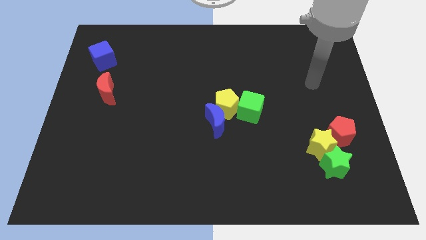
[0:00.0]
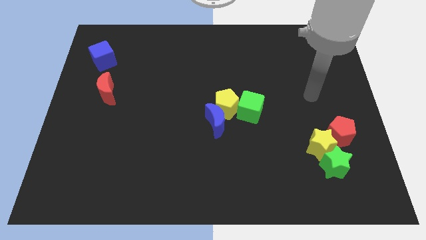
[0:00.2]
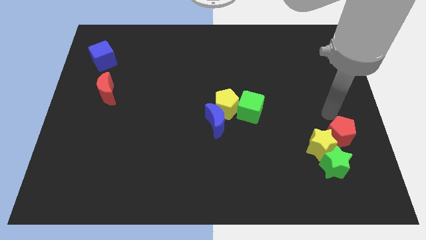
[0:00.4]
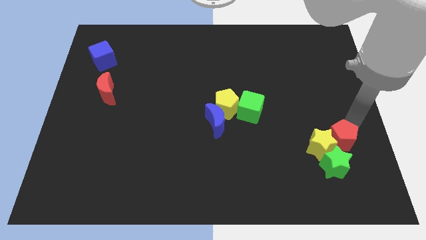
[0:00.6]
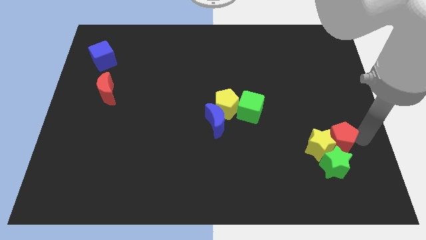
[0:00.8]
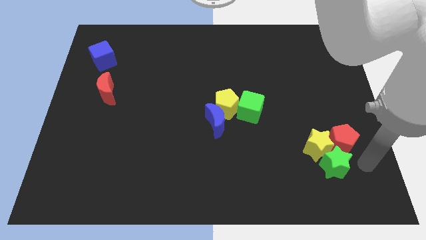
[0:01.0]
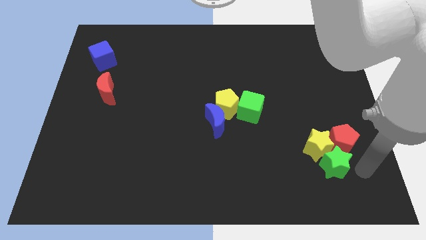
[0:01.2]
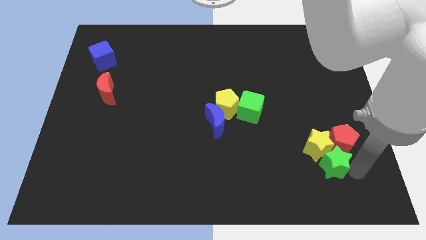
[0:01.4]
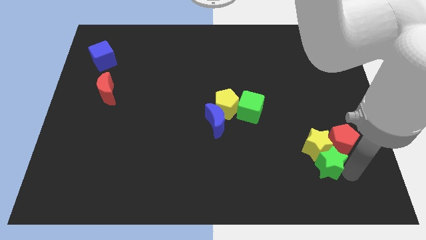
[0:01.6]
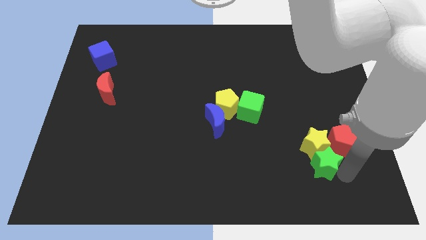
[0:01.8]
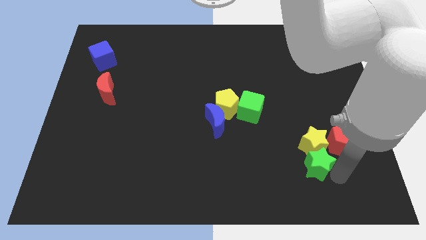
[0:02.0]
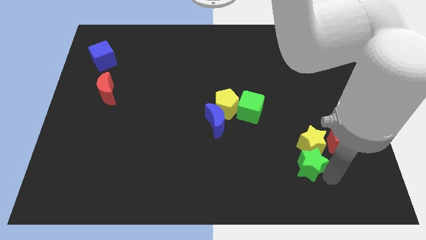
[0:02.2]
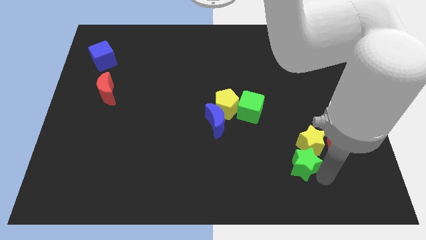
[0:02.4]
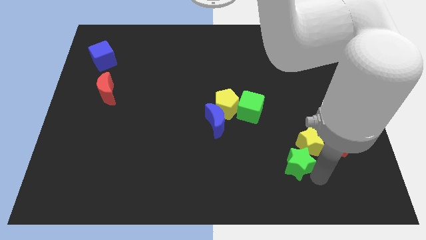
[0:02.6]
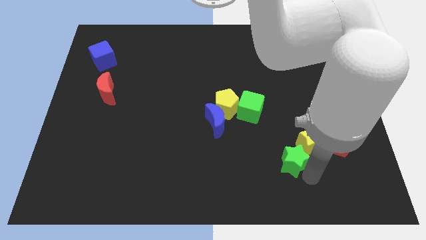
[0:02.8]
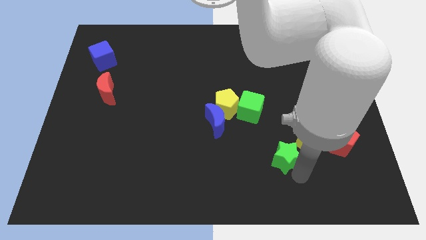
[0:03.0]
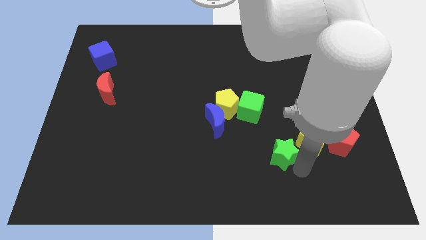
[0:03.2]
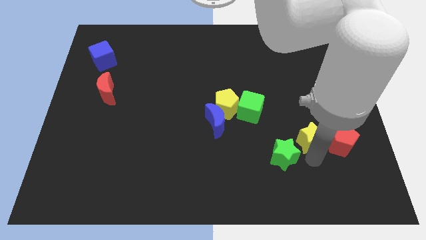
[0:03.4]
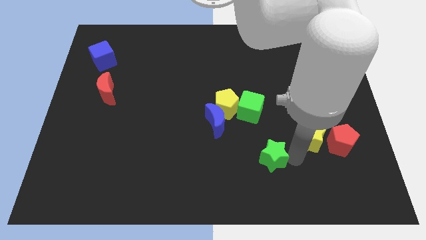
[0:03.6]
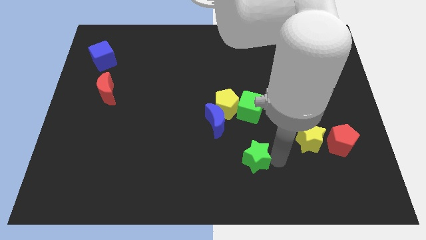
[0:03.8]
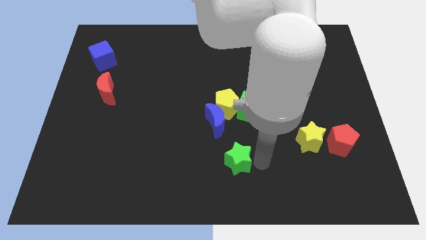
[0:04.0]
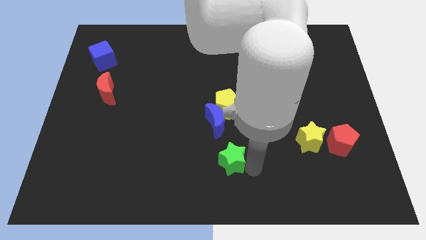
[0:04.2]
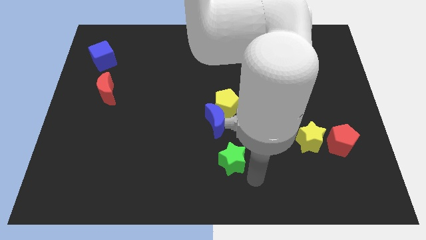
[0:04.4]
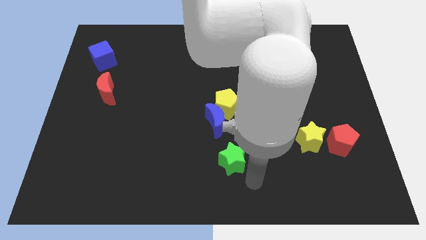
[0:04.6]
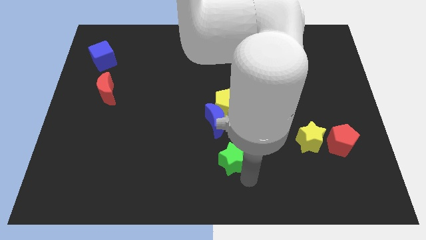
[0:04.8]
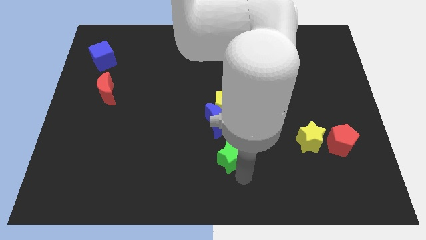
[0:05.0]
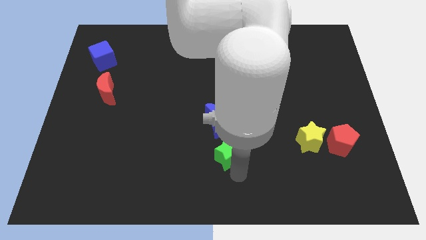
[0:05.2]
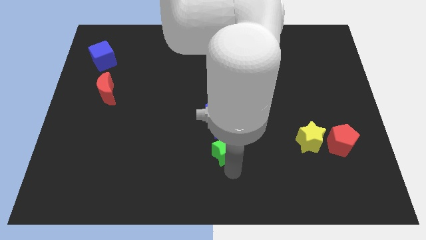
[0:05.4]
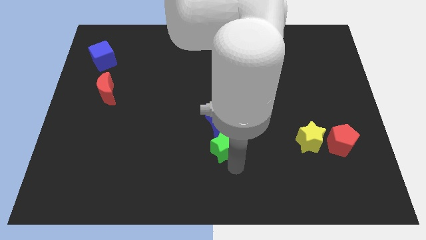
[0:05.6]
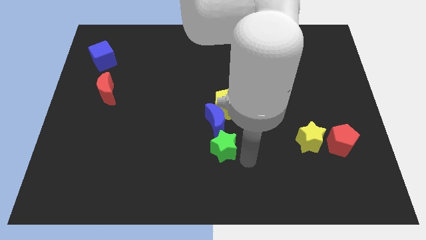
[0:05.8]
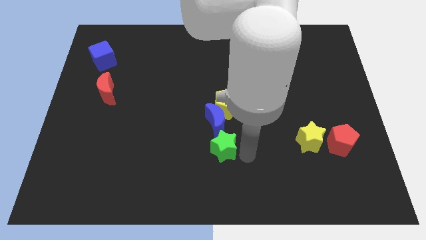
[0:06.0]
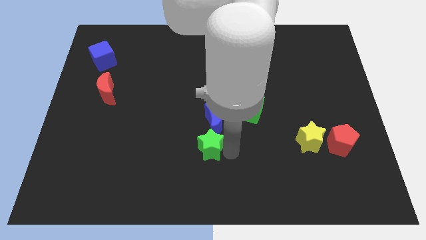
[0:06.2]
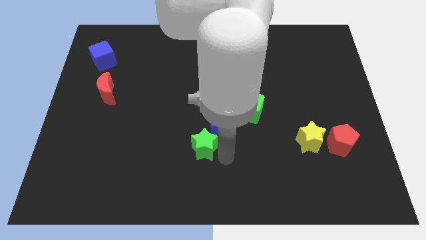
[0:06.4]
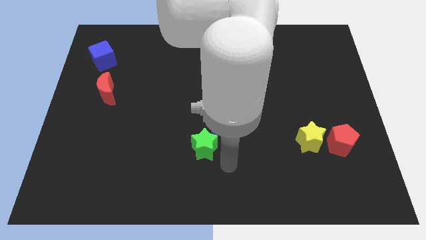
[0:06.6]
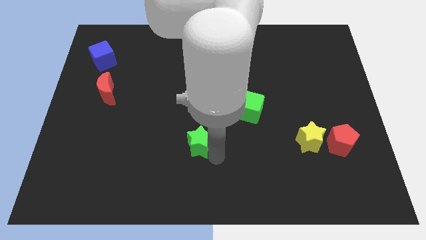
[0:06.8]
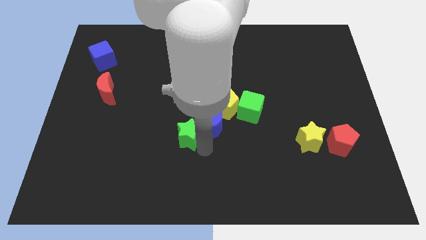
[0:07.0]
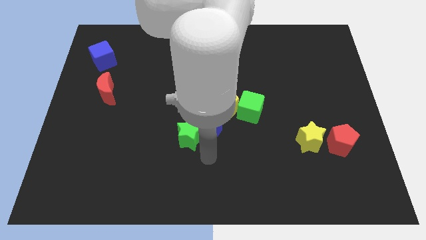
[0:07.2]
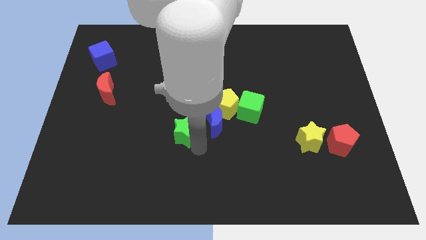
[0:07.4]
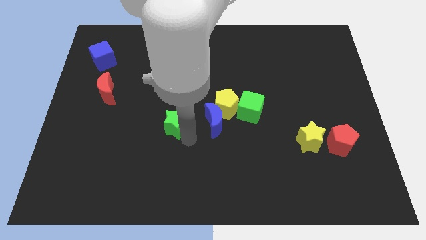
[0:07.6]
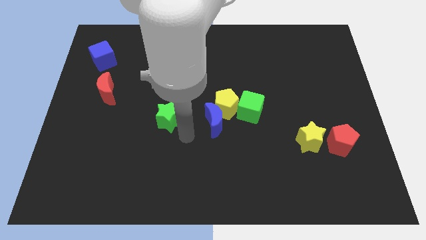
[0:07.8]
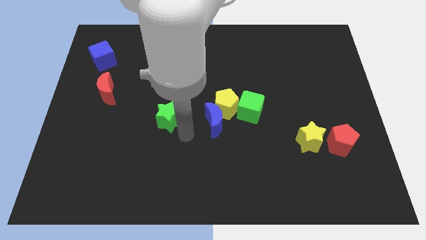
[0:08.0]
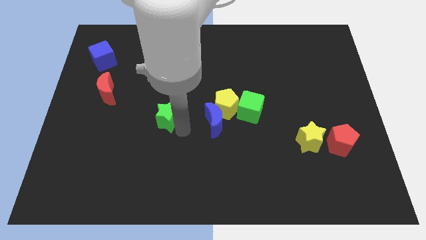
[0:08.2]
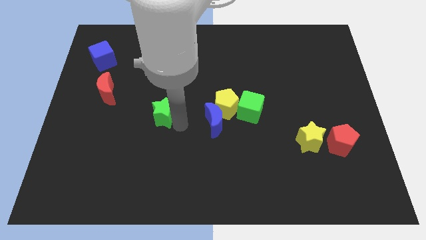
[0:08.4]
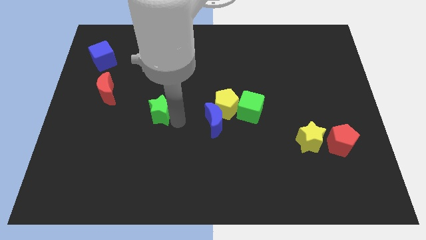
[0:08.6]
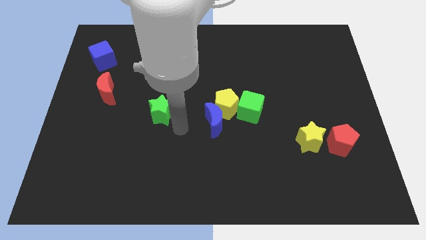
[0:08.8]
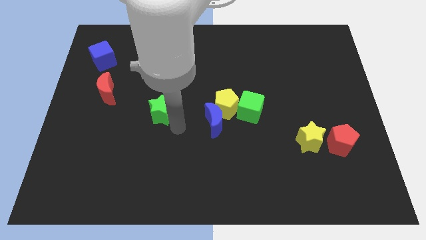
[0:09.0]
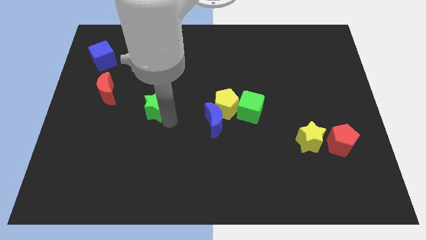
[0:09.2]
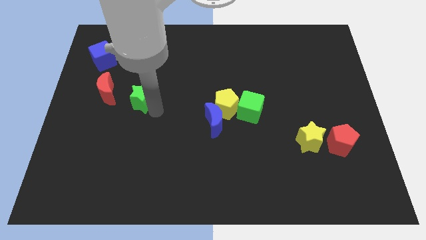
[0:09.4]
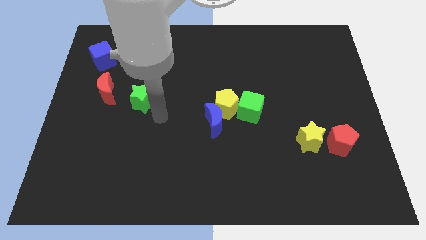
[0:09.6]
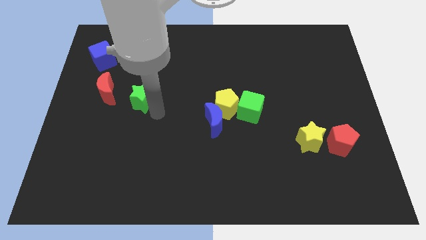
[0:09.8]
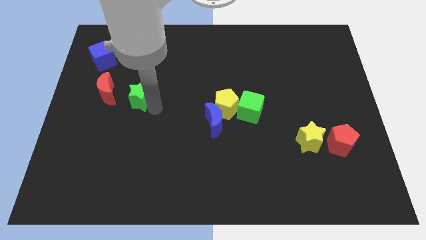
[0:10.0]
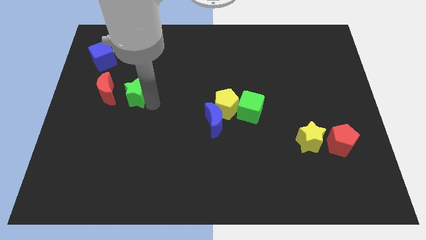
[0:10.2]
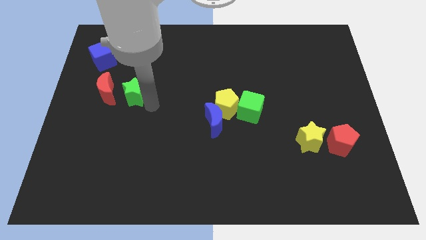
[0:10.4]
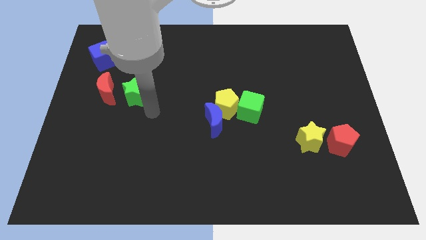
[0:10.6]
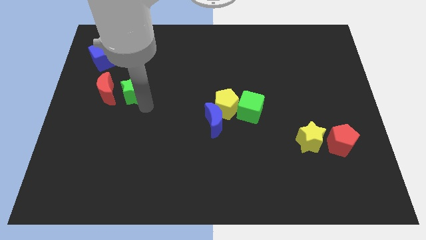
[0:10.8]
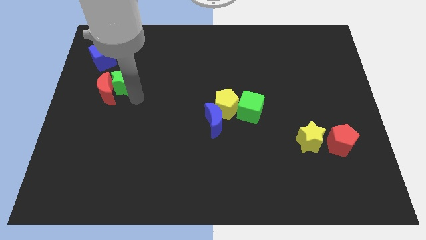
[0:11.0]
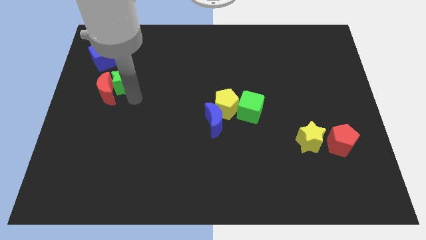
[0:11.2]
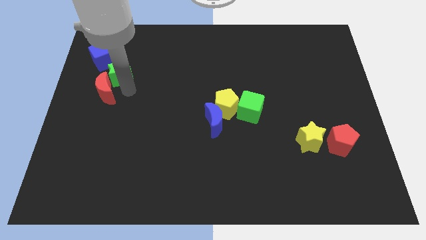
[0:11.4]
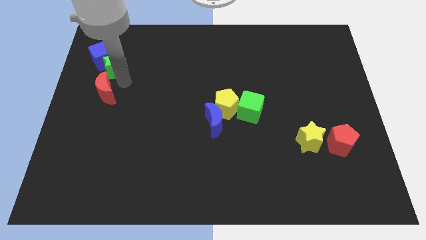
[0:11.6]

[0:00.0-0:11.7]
move the green star towards the blue cube
